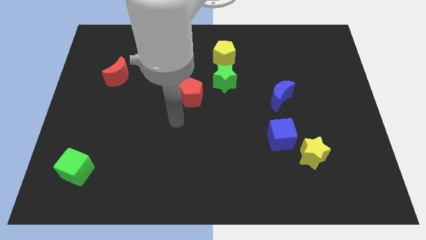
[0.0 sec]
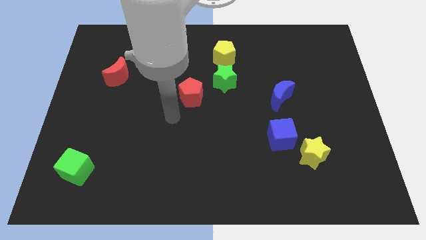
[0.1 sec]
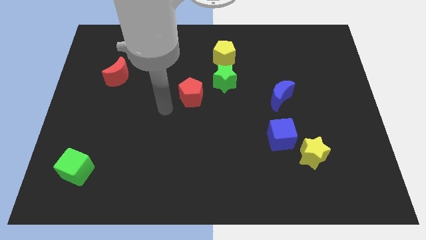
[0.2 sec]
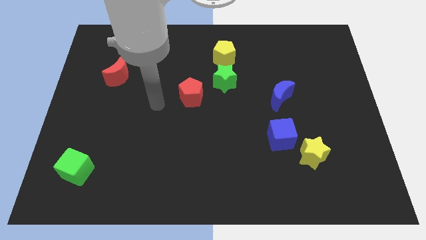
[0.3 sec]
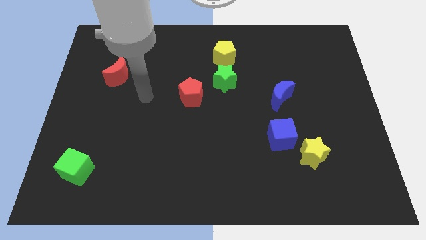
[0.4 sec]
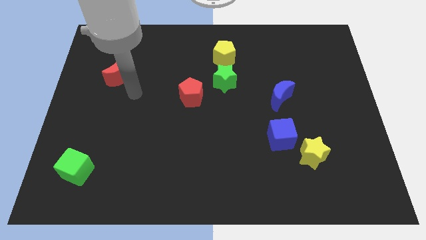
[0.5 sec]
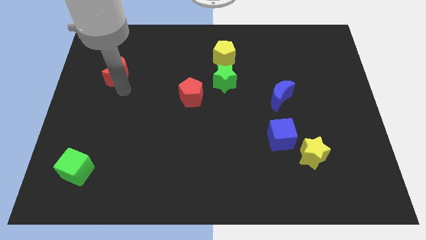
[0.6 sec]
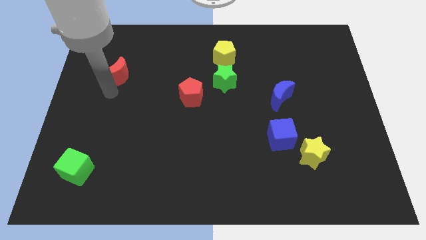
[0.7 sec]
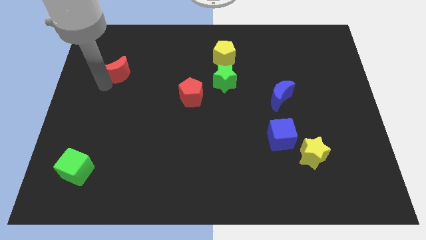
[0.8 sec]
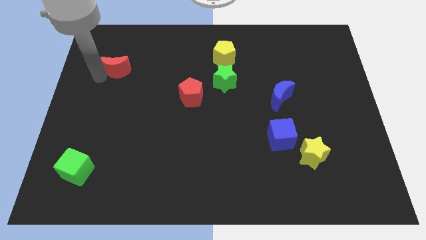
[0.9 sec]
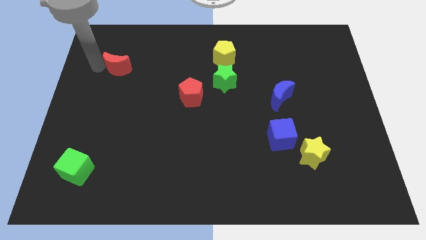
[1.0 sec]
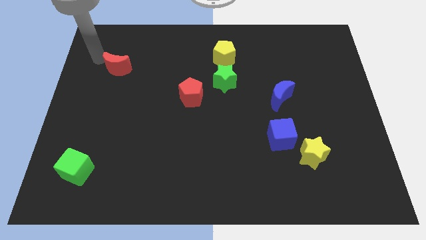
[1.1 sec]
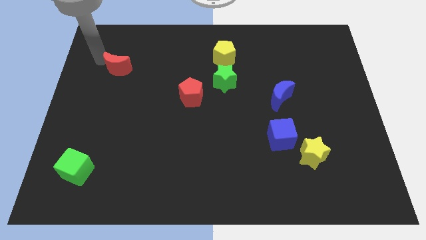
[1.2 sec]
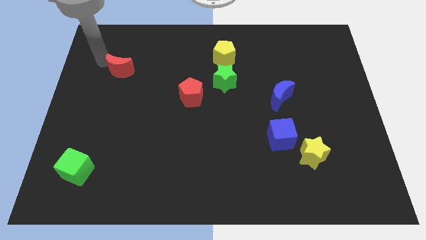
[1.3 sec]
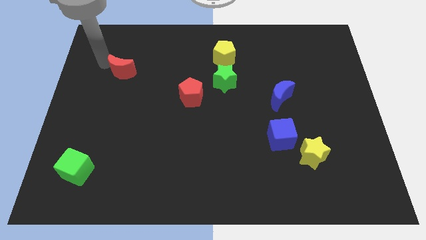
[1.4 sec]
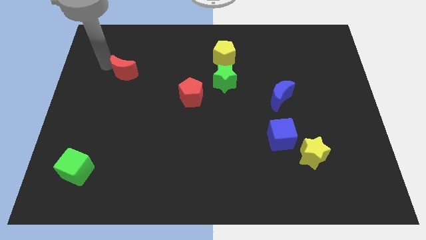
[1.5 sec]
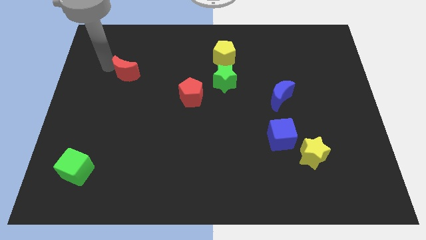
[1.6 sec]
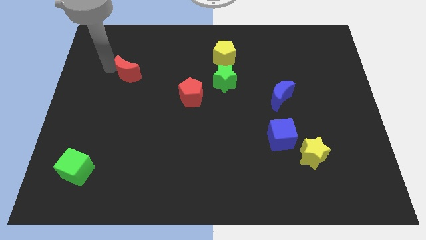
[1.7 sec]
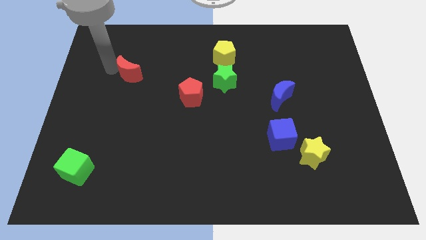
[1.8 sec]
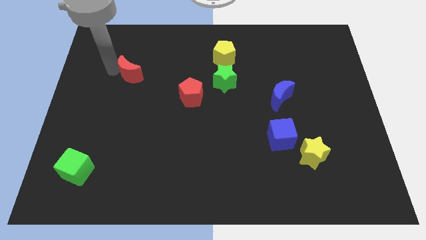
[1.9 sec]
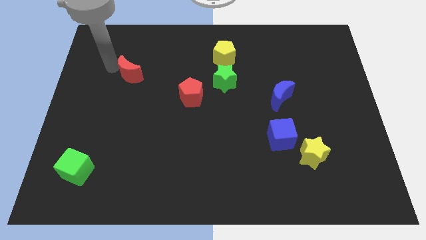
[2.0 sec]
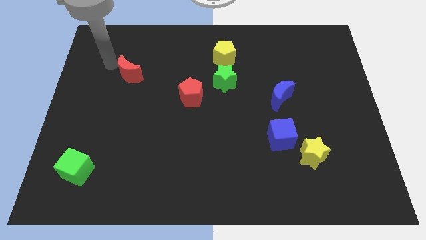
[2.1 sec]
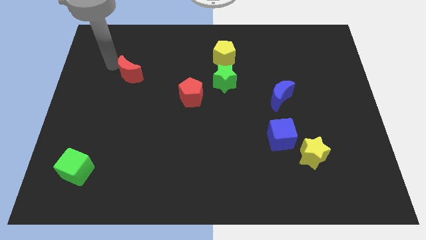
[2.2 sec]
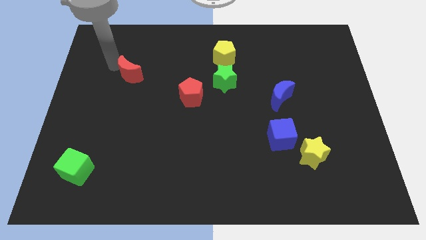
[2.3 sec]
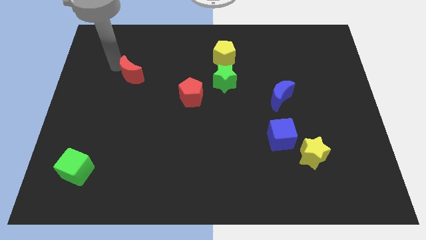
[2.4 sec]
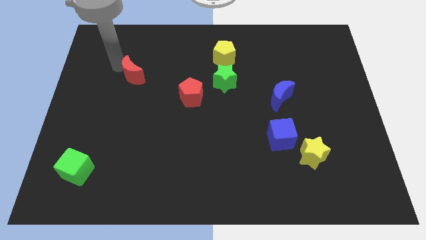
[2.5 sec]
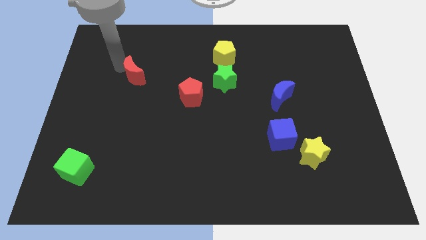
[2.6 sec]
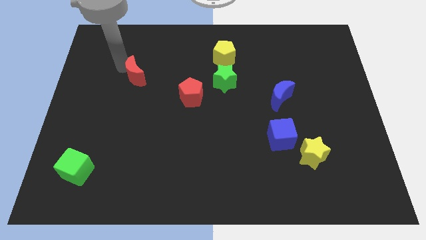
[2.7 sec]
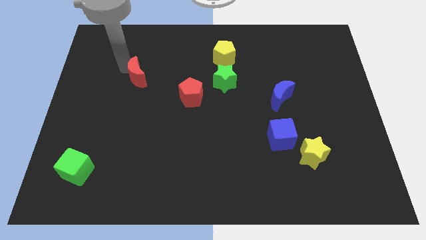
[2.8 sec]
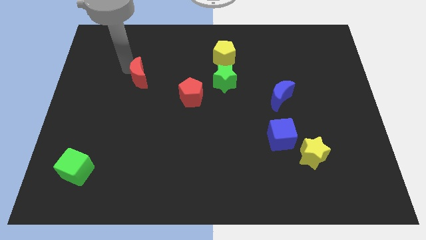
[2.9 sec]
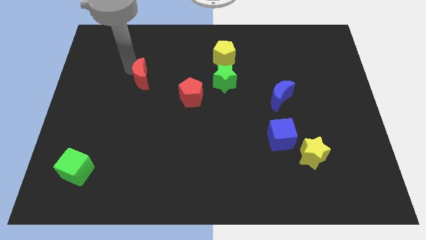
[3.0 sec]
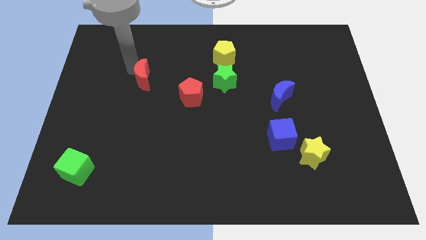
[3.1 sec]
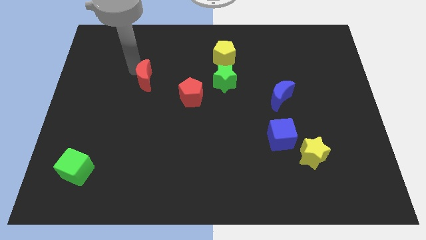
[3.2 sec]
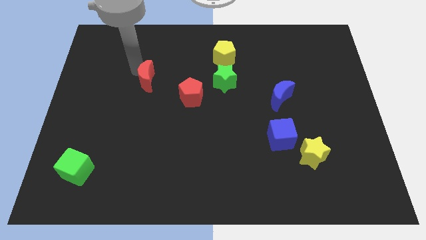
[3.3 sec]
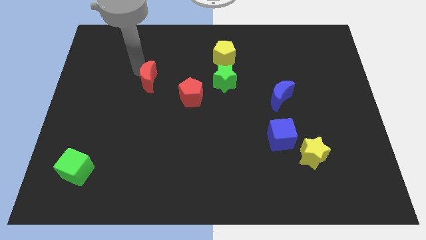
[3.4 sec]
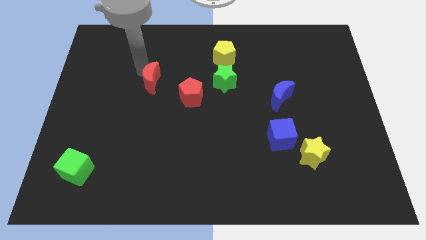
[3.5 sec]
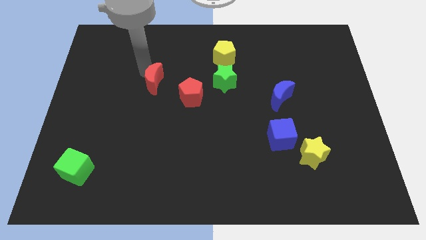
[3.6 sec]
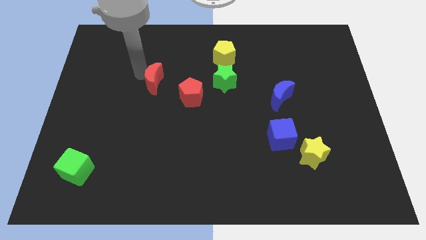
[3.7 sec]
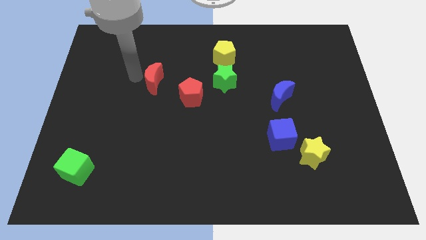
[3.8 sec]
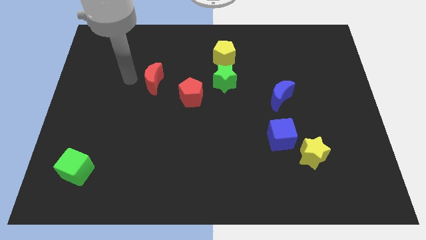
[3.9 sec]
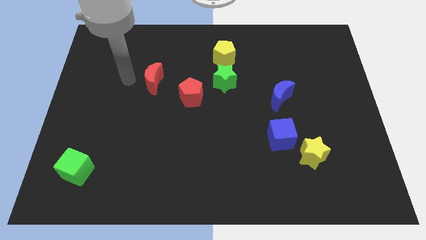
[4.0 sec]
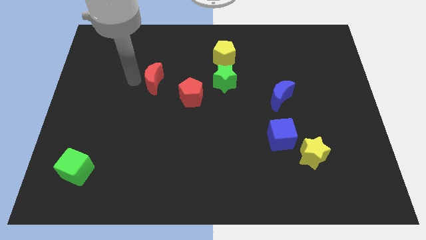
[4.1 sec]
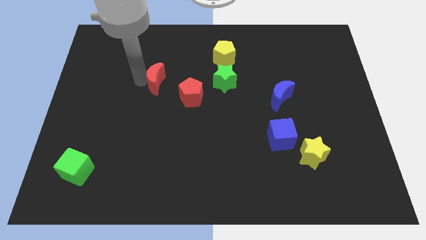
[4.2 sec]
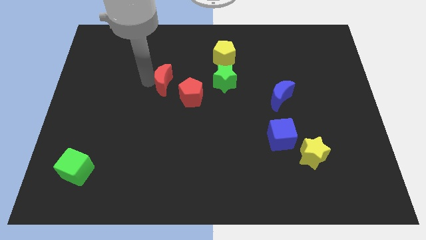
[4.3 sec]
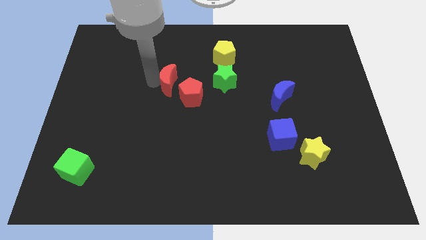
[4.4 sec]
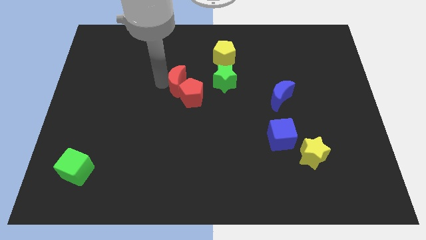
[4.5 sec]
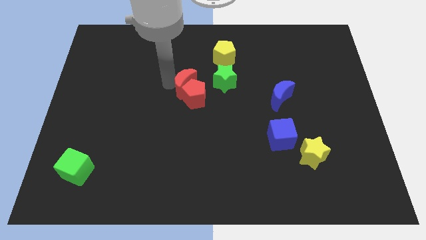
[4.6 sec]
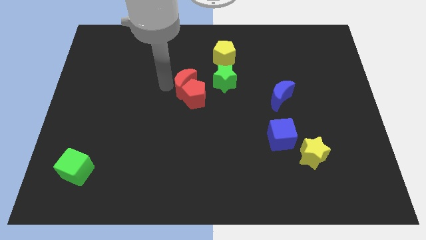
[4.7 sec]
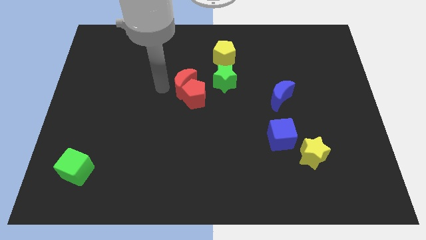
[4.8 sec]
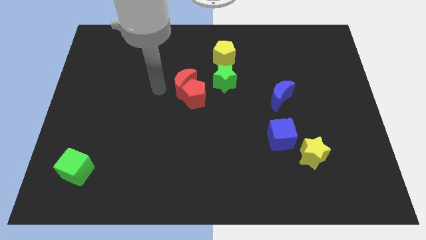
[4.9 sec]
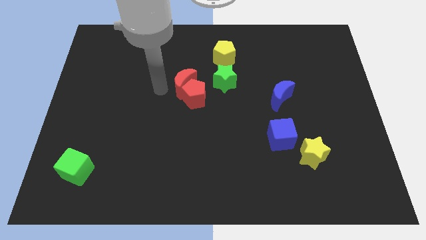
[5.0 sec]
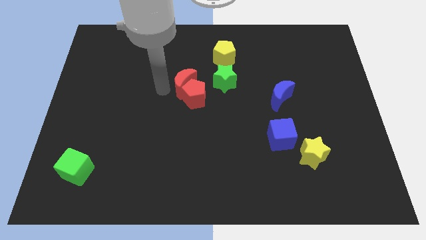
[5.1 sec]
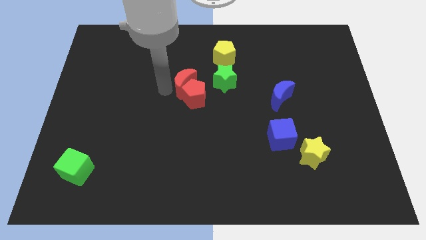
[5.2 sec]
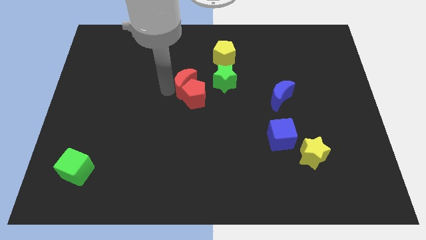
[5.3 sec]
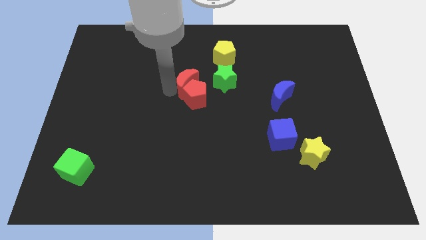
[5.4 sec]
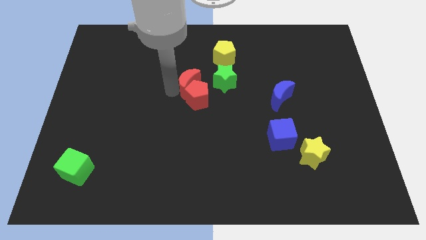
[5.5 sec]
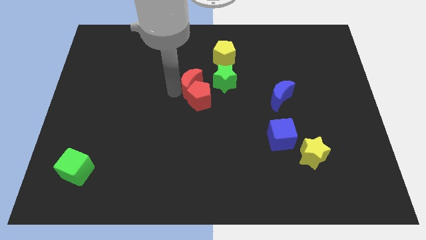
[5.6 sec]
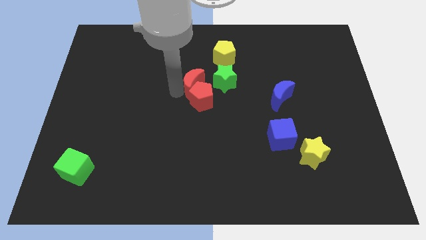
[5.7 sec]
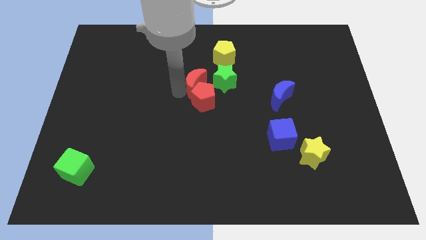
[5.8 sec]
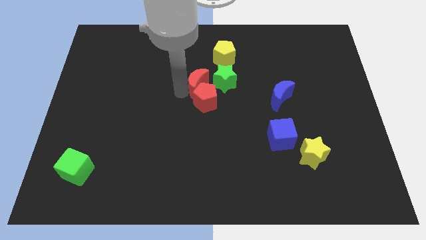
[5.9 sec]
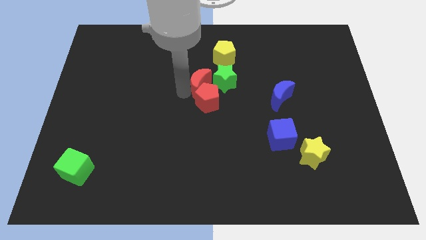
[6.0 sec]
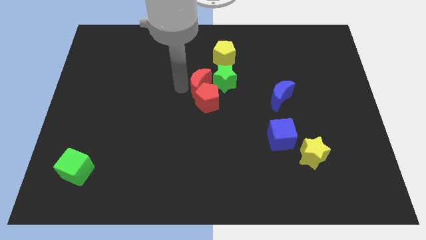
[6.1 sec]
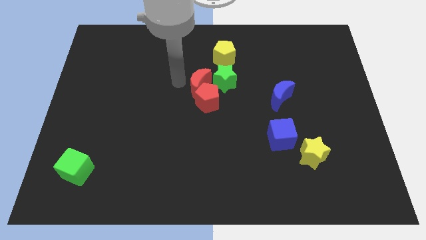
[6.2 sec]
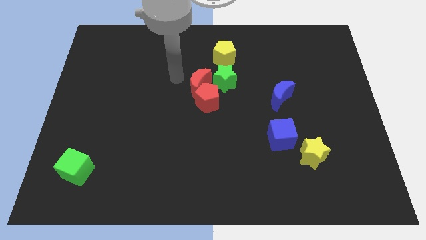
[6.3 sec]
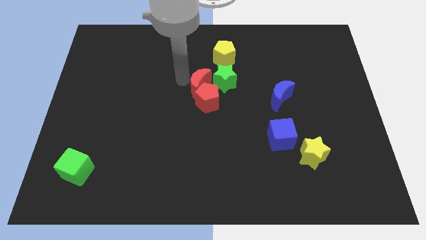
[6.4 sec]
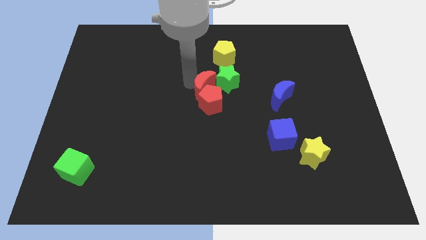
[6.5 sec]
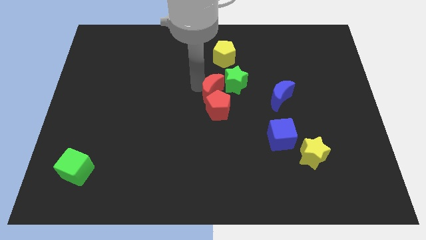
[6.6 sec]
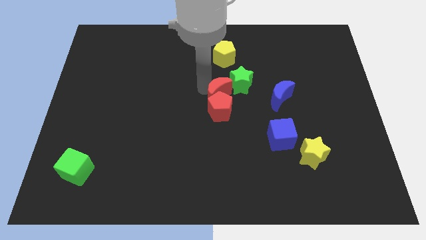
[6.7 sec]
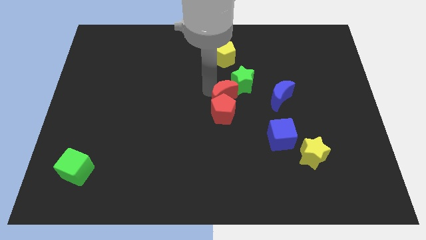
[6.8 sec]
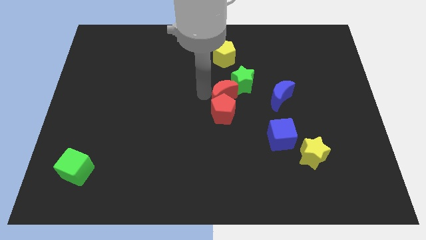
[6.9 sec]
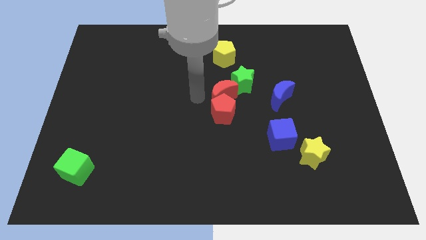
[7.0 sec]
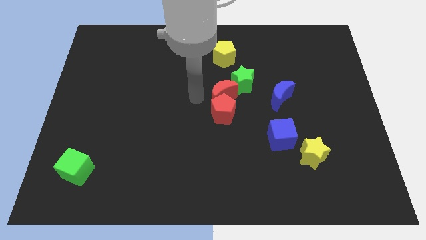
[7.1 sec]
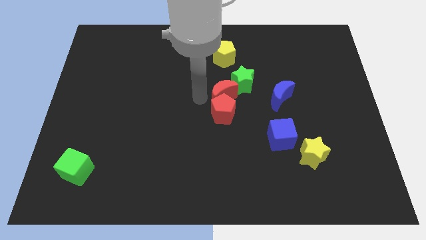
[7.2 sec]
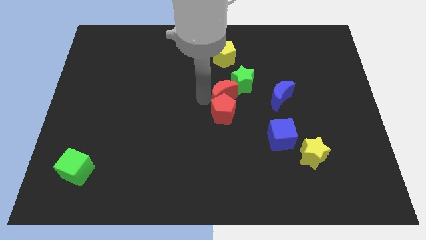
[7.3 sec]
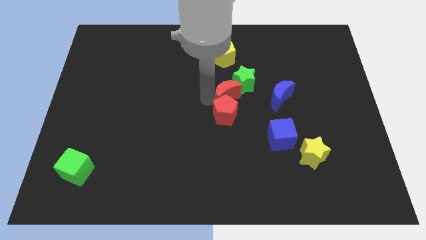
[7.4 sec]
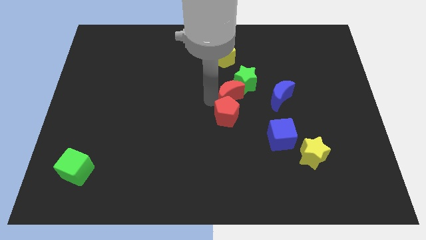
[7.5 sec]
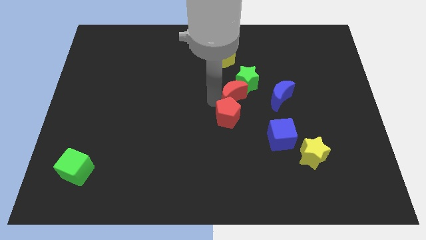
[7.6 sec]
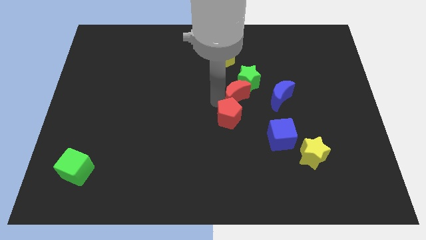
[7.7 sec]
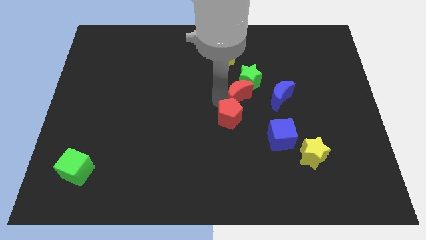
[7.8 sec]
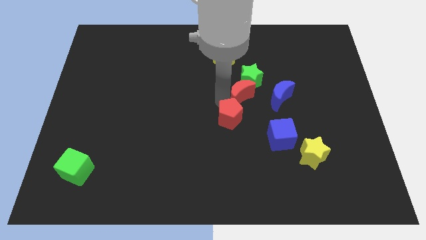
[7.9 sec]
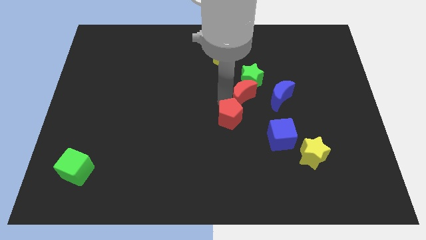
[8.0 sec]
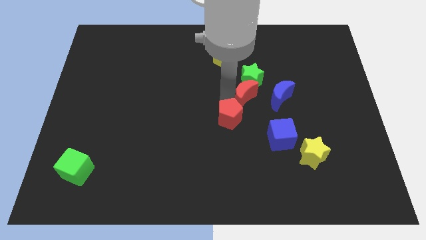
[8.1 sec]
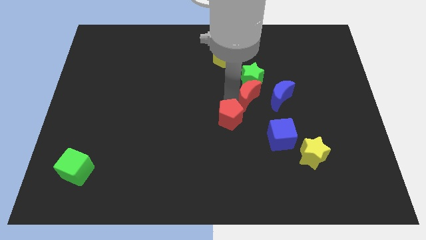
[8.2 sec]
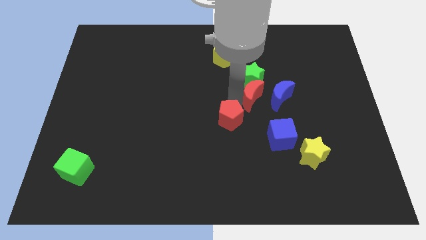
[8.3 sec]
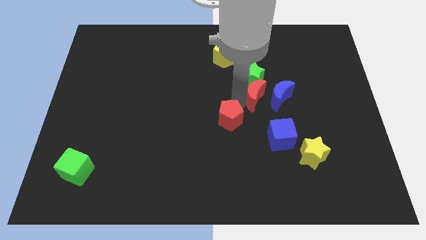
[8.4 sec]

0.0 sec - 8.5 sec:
push the red moon to the blue moon
